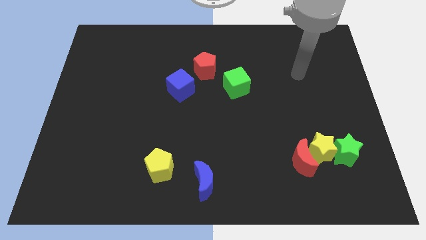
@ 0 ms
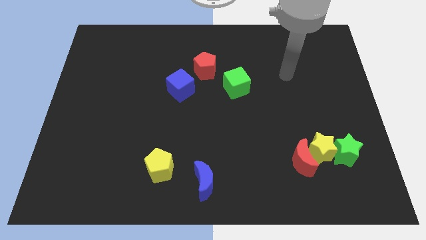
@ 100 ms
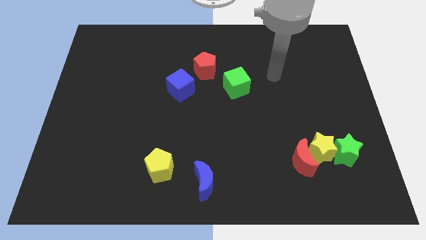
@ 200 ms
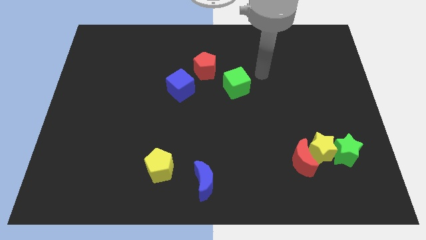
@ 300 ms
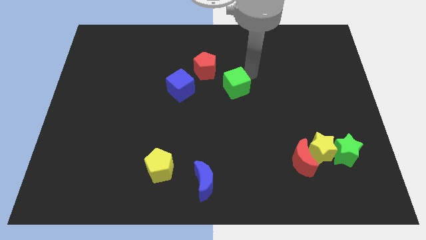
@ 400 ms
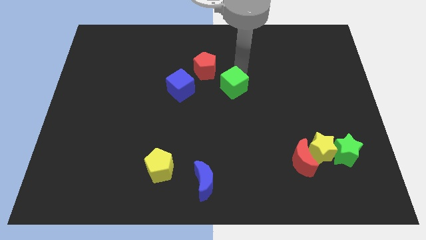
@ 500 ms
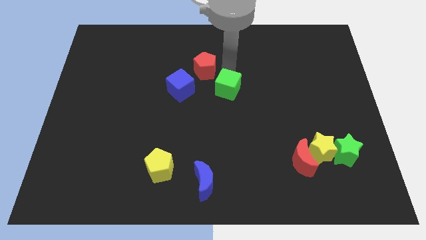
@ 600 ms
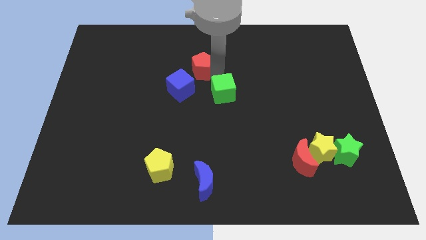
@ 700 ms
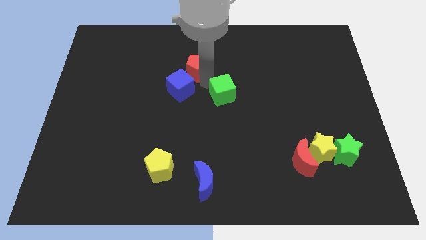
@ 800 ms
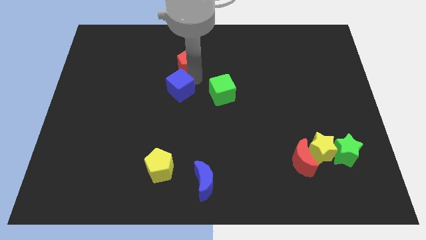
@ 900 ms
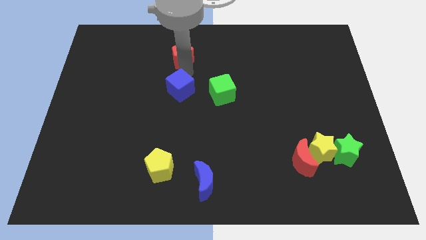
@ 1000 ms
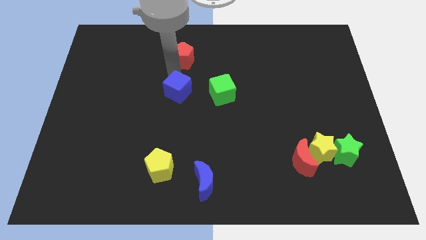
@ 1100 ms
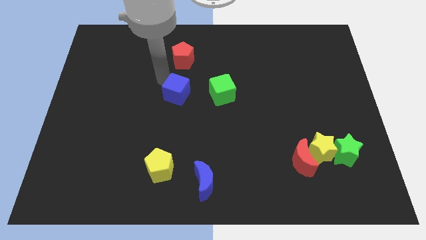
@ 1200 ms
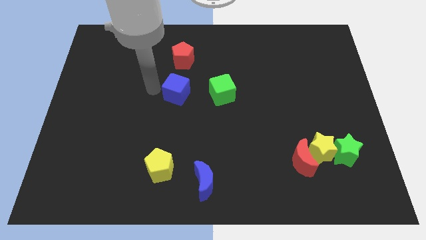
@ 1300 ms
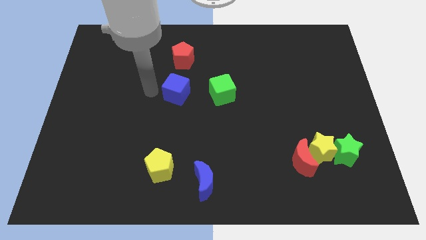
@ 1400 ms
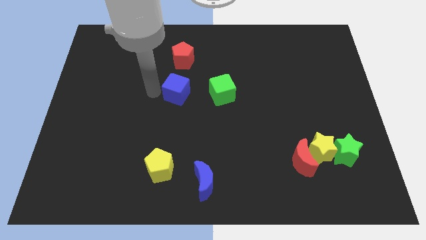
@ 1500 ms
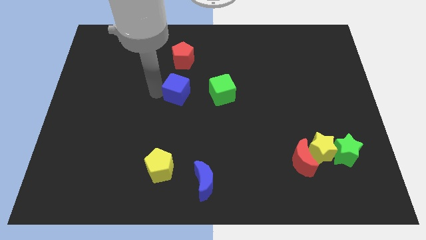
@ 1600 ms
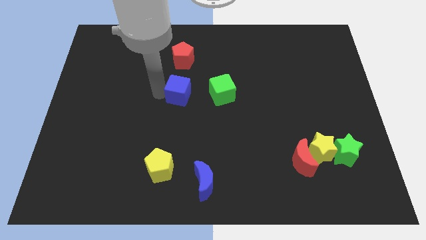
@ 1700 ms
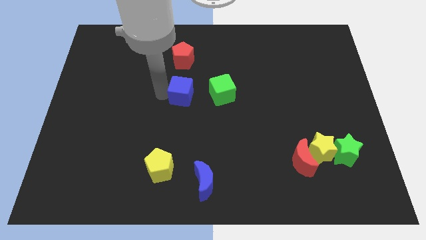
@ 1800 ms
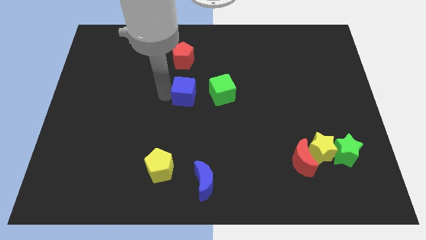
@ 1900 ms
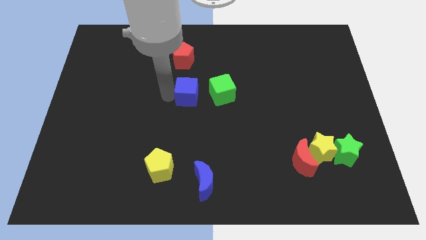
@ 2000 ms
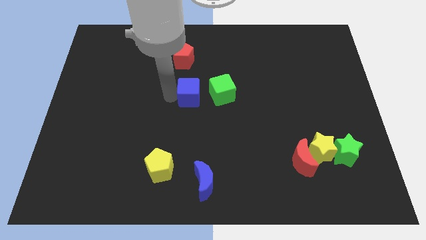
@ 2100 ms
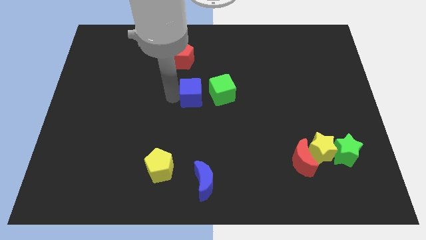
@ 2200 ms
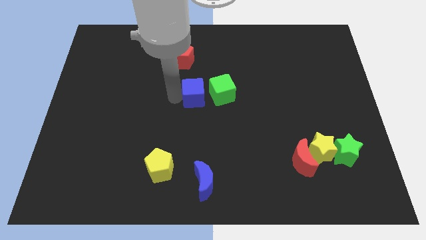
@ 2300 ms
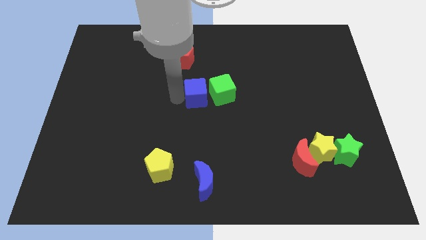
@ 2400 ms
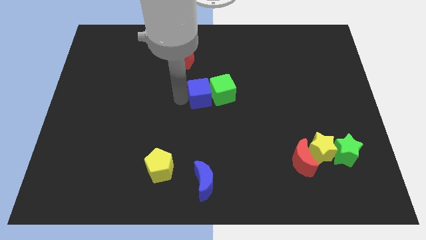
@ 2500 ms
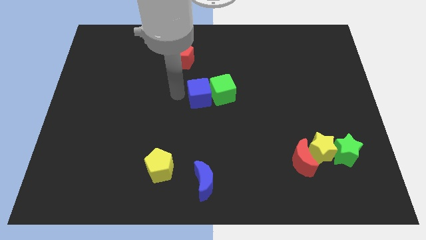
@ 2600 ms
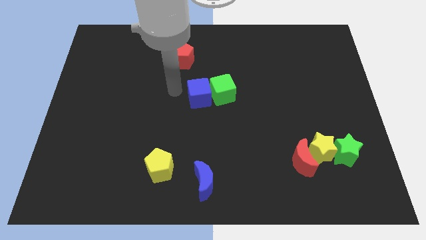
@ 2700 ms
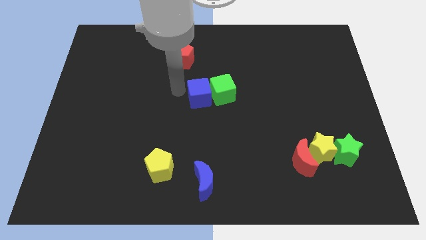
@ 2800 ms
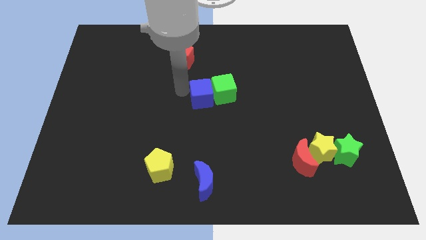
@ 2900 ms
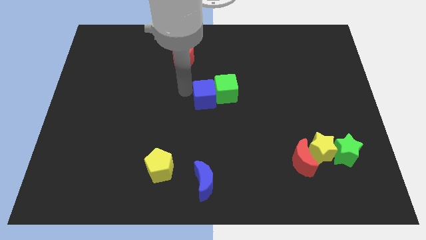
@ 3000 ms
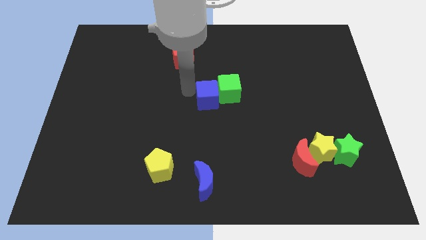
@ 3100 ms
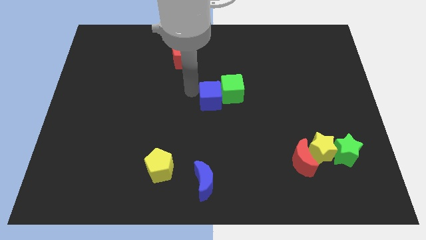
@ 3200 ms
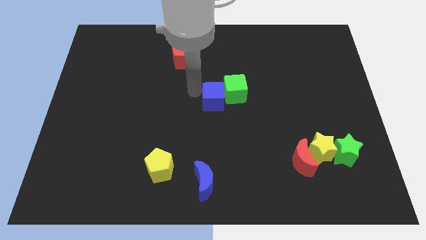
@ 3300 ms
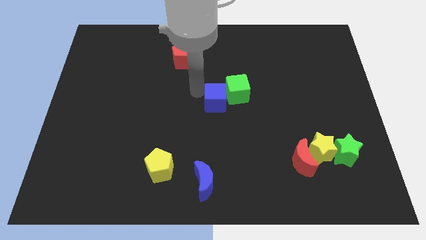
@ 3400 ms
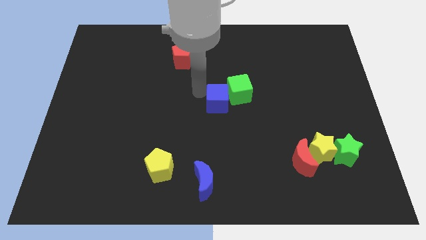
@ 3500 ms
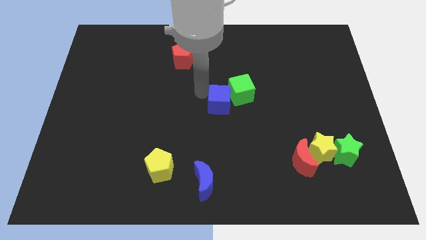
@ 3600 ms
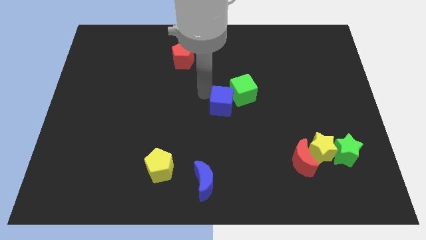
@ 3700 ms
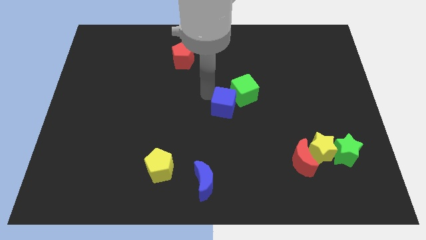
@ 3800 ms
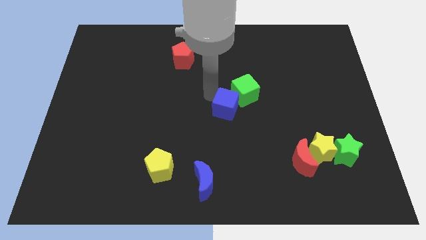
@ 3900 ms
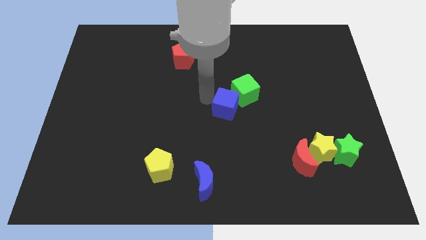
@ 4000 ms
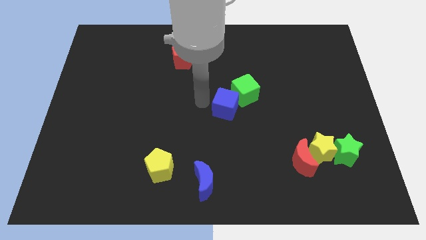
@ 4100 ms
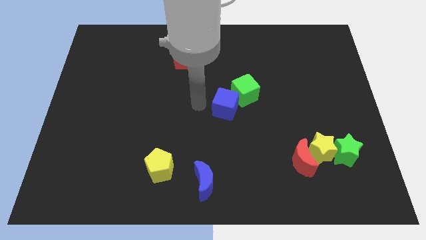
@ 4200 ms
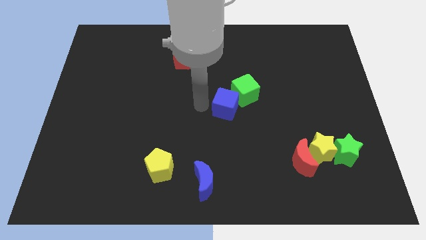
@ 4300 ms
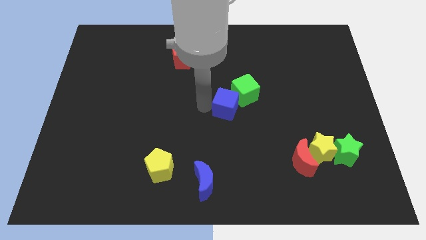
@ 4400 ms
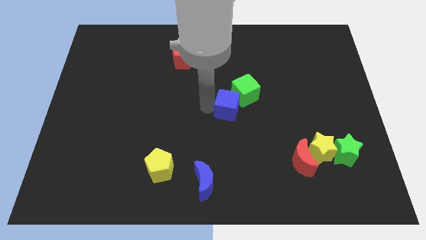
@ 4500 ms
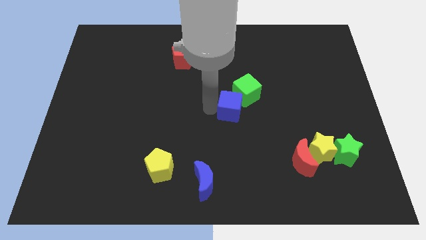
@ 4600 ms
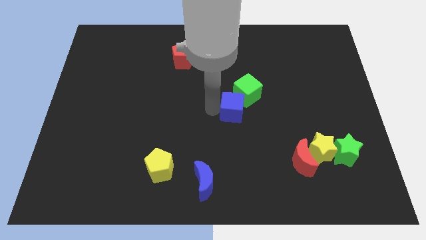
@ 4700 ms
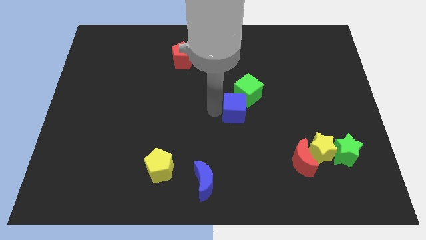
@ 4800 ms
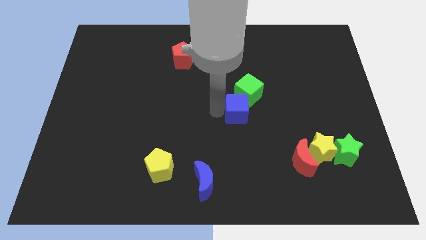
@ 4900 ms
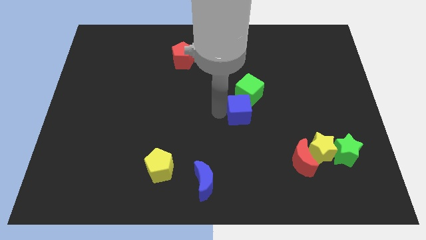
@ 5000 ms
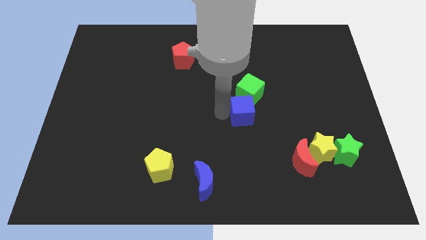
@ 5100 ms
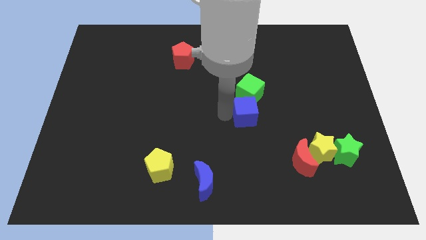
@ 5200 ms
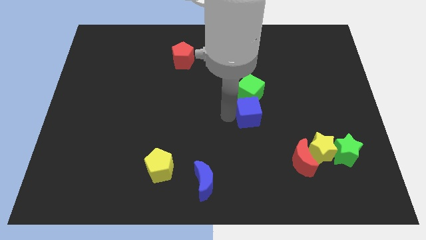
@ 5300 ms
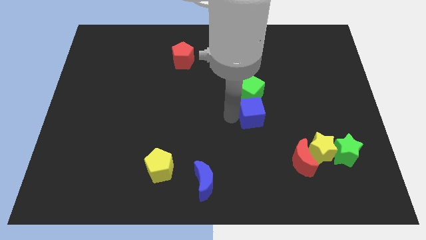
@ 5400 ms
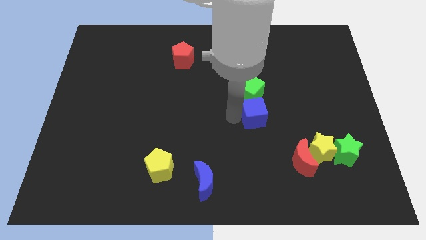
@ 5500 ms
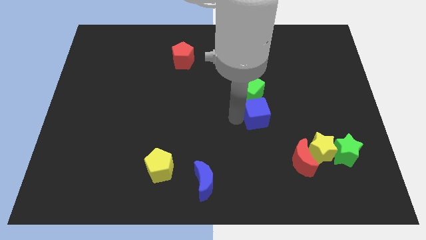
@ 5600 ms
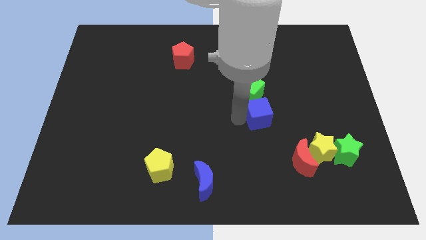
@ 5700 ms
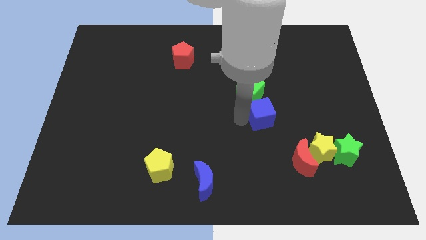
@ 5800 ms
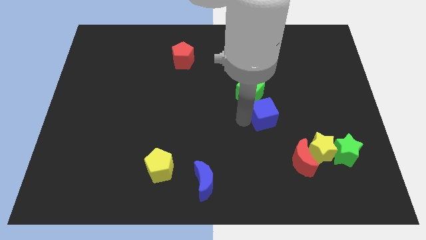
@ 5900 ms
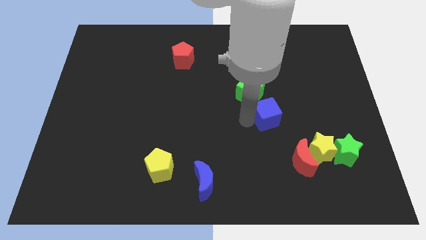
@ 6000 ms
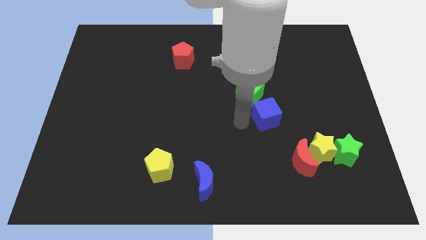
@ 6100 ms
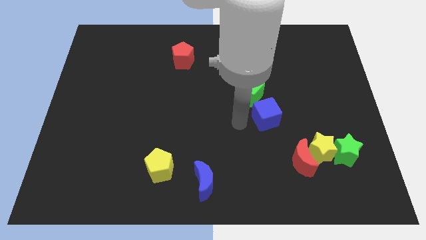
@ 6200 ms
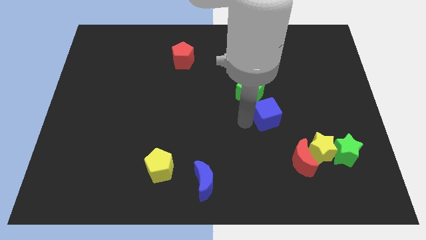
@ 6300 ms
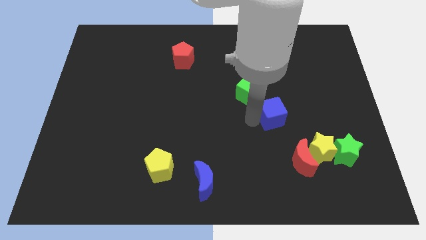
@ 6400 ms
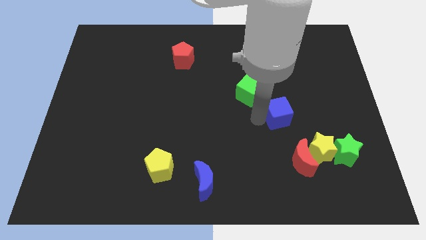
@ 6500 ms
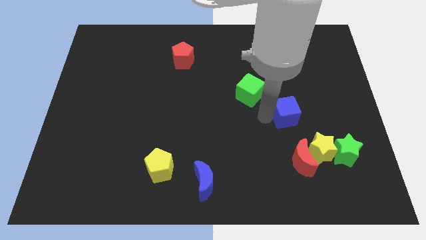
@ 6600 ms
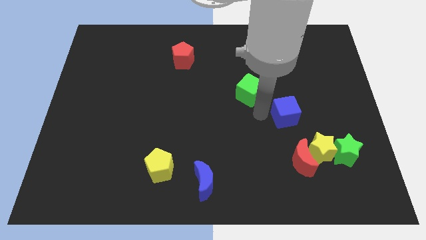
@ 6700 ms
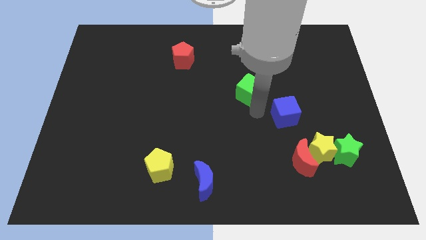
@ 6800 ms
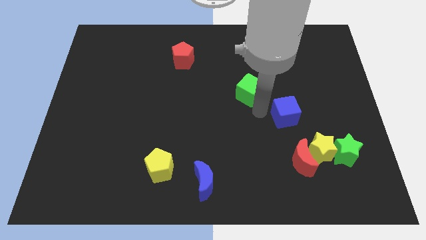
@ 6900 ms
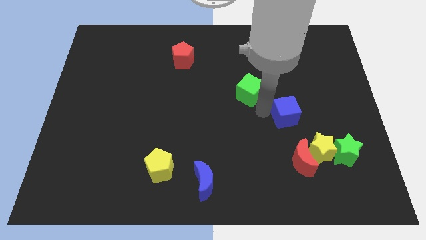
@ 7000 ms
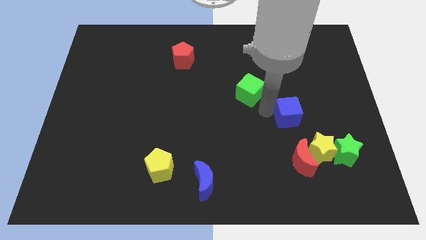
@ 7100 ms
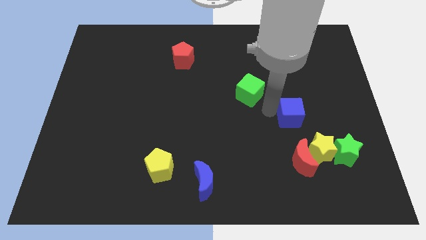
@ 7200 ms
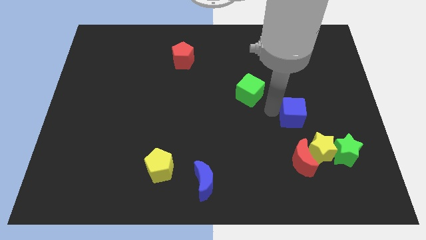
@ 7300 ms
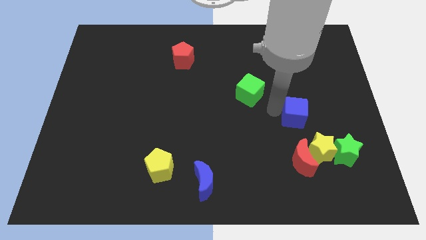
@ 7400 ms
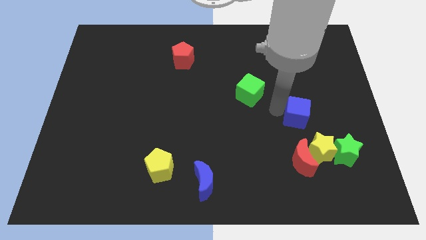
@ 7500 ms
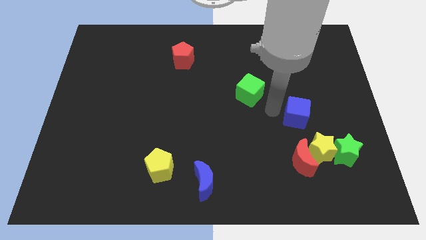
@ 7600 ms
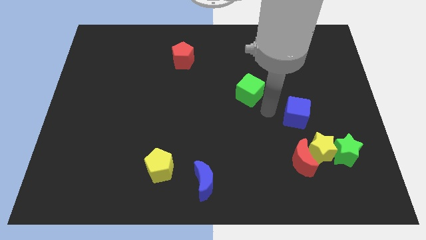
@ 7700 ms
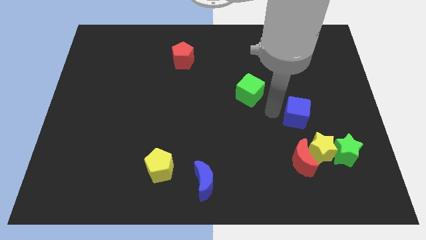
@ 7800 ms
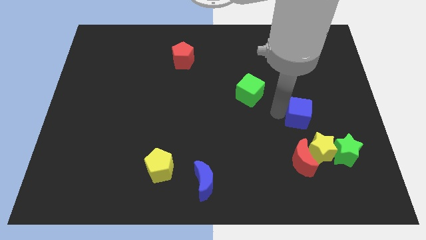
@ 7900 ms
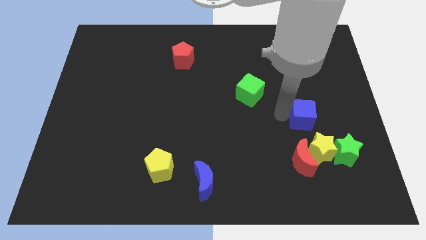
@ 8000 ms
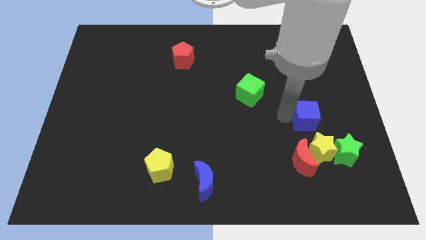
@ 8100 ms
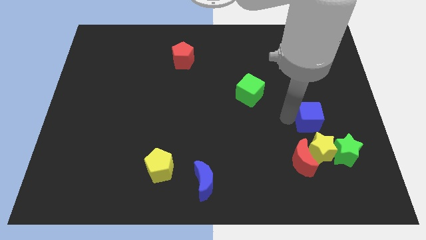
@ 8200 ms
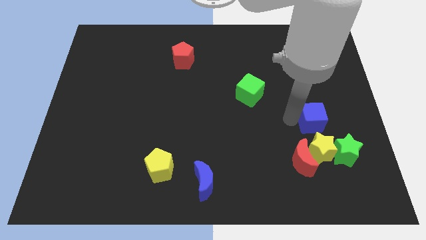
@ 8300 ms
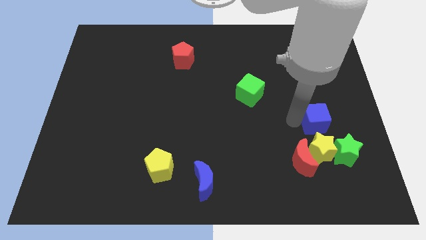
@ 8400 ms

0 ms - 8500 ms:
slide the blue cube above the green star
